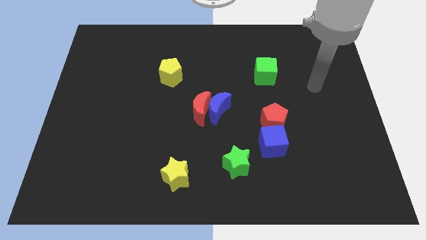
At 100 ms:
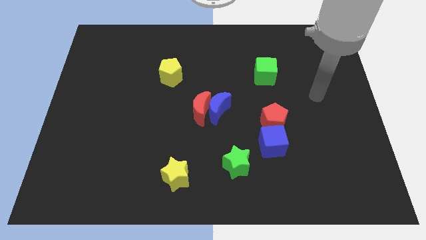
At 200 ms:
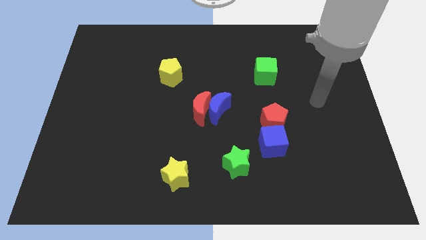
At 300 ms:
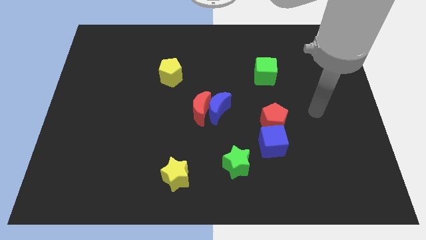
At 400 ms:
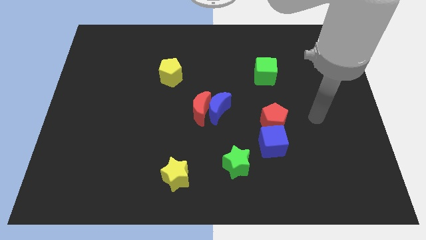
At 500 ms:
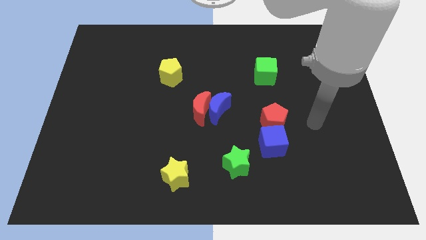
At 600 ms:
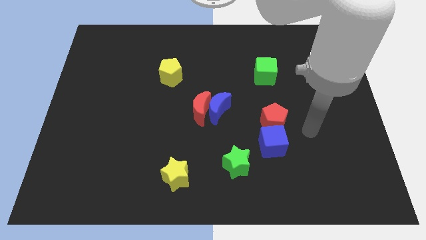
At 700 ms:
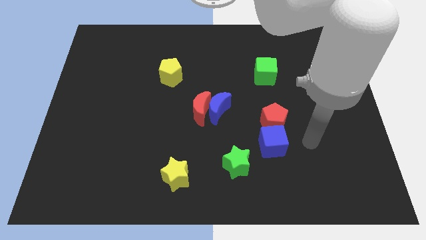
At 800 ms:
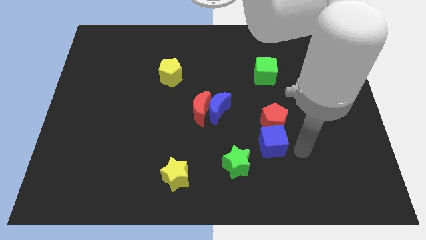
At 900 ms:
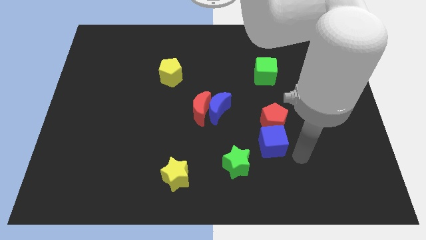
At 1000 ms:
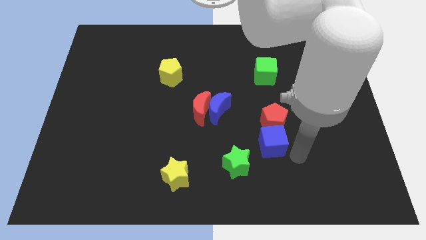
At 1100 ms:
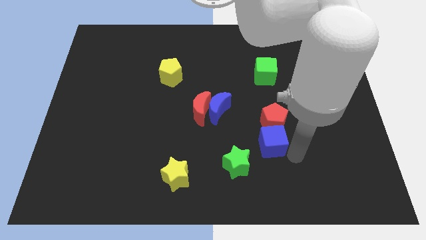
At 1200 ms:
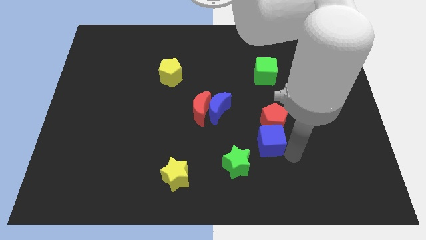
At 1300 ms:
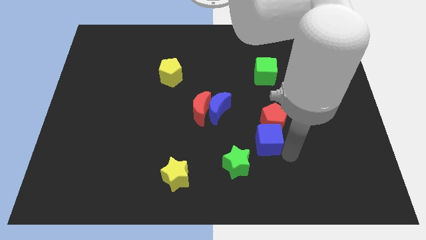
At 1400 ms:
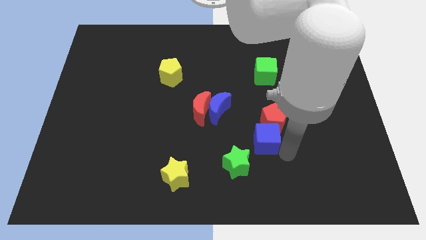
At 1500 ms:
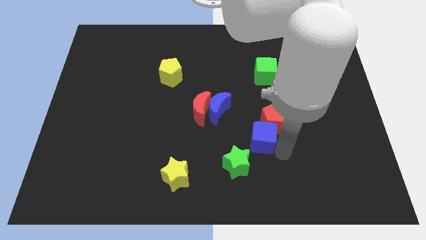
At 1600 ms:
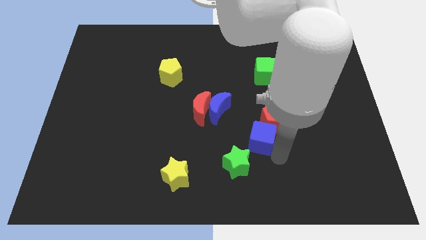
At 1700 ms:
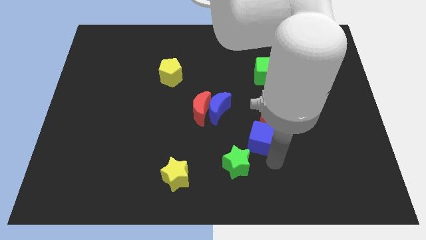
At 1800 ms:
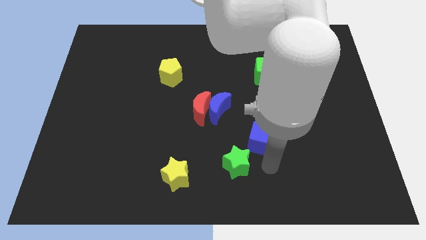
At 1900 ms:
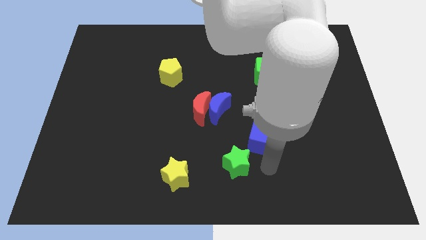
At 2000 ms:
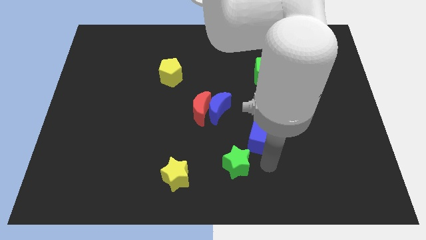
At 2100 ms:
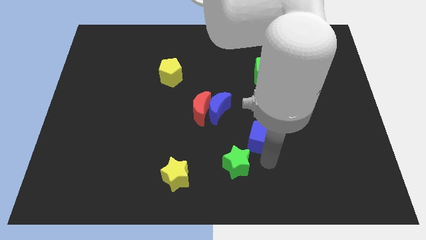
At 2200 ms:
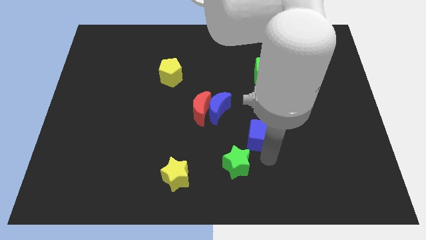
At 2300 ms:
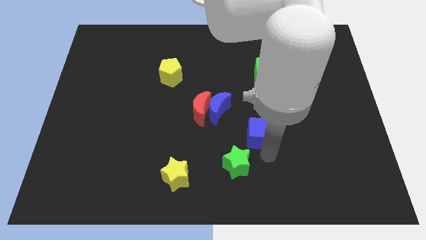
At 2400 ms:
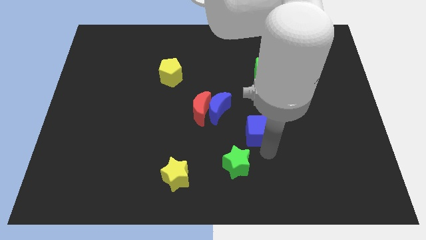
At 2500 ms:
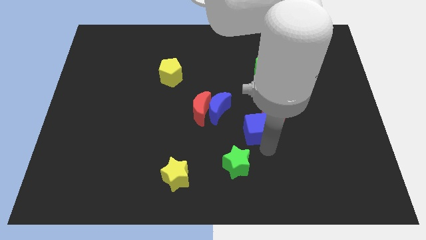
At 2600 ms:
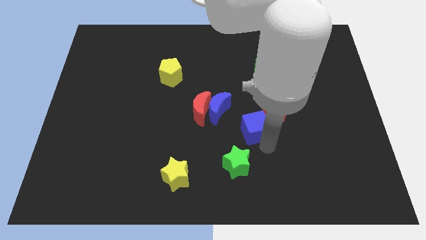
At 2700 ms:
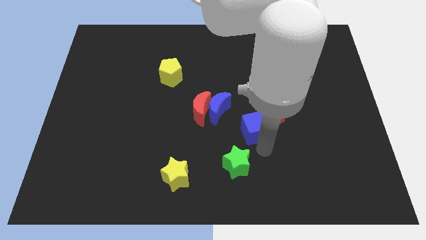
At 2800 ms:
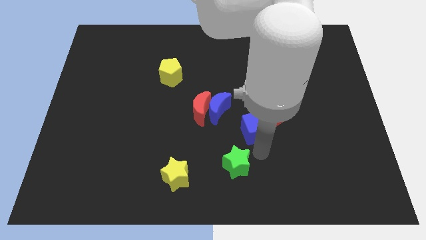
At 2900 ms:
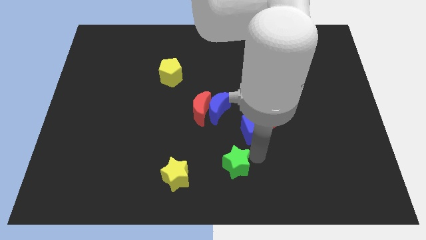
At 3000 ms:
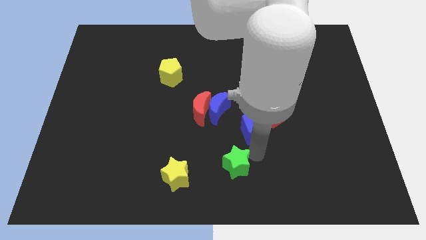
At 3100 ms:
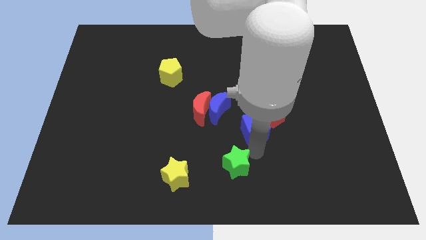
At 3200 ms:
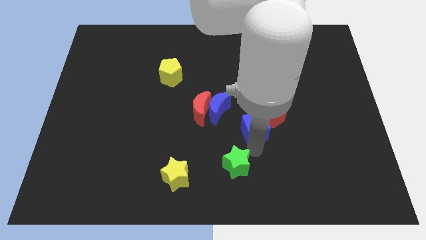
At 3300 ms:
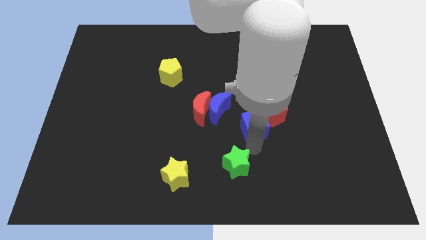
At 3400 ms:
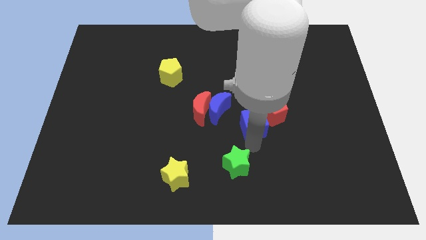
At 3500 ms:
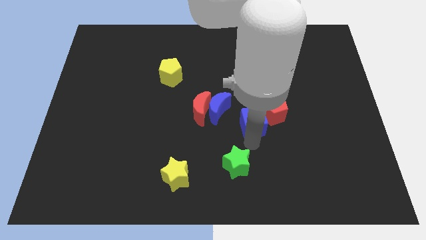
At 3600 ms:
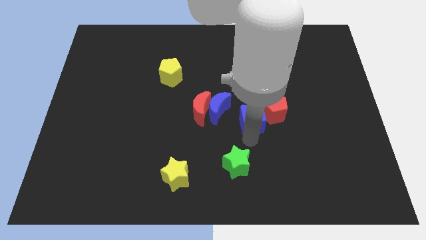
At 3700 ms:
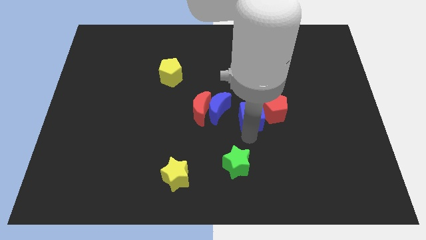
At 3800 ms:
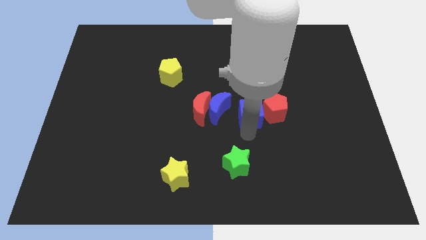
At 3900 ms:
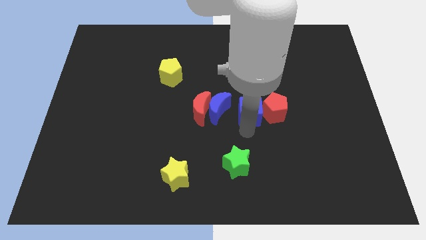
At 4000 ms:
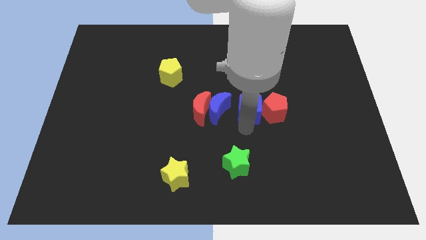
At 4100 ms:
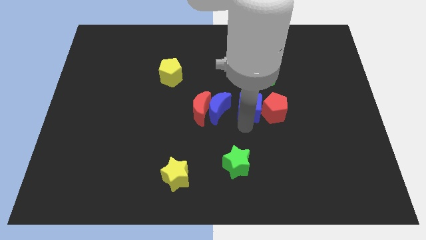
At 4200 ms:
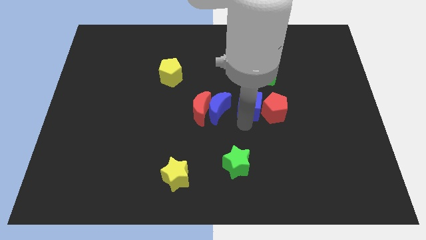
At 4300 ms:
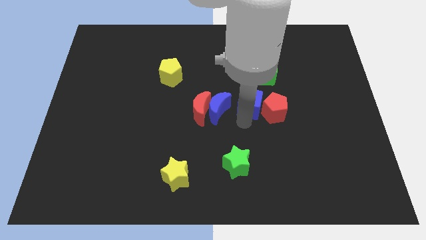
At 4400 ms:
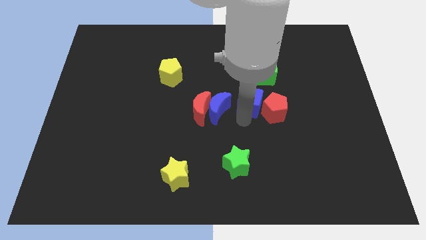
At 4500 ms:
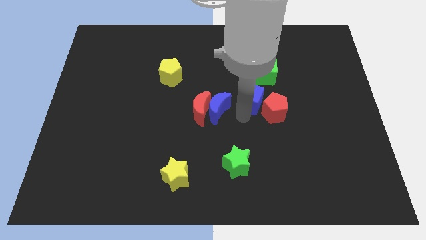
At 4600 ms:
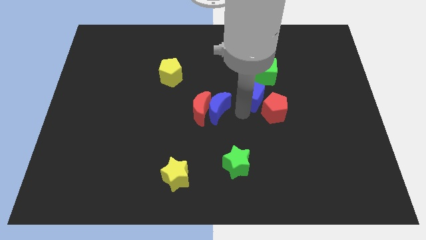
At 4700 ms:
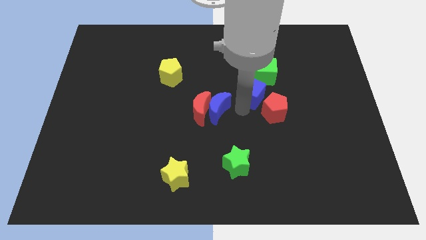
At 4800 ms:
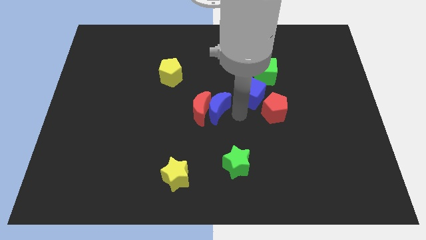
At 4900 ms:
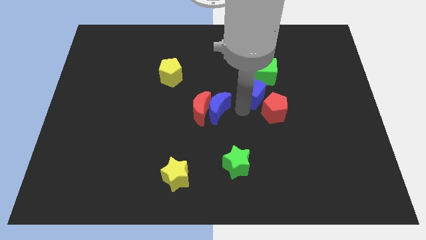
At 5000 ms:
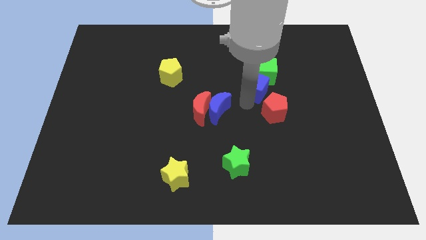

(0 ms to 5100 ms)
move the blue cube to the green cube

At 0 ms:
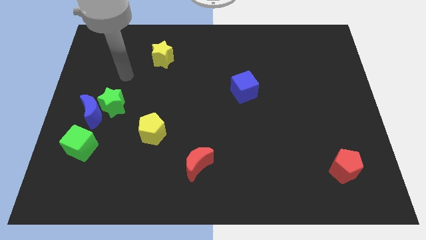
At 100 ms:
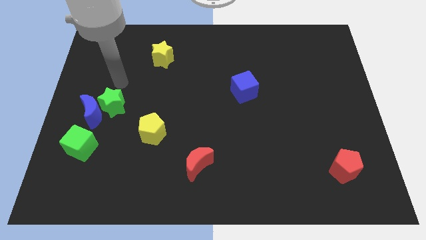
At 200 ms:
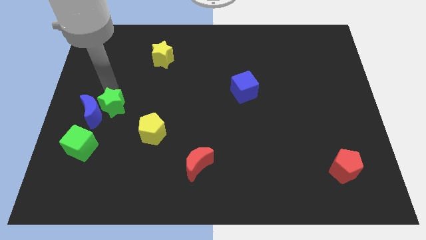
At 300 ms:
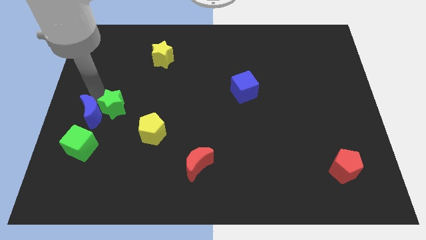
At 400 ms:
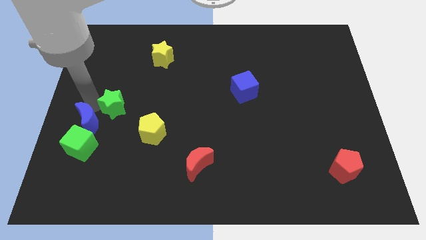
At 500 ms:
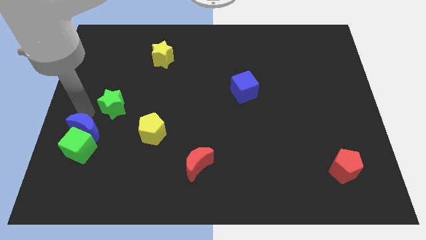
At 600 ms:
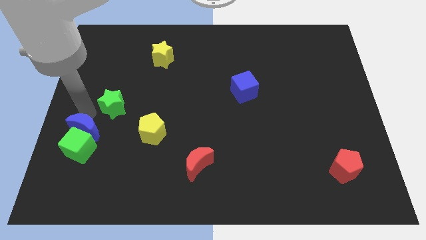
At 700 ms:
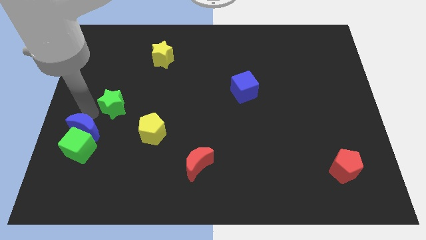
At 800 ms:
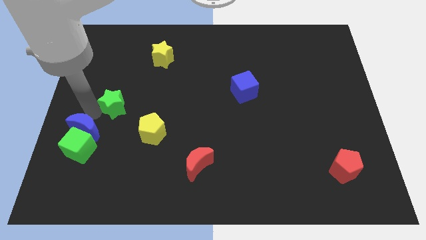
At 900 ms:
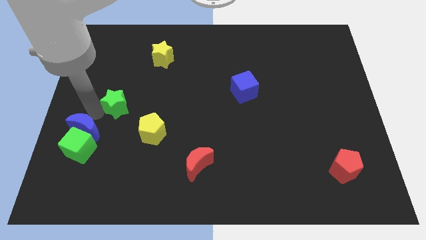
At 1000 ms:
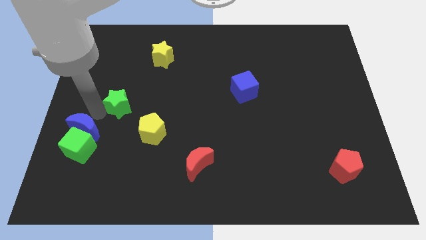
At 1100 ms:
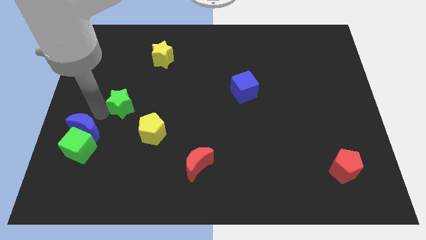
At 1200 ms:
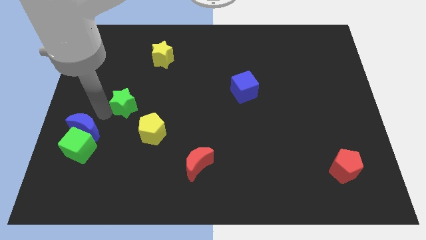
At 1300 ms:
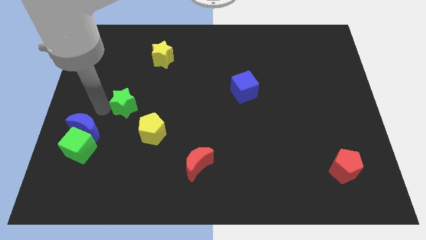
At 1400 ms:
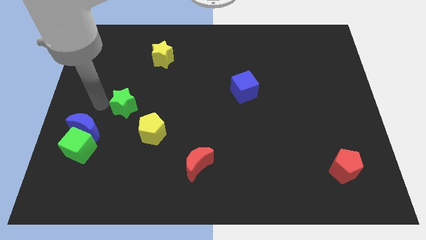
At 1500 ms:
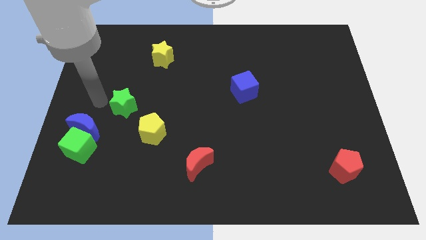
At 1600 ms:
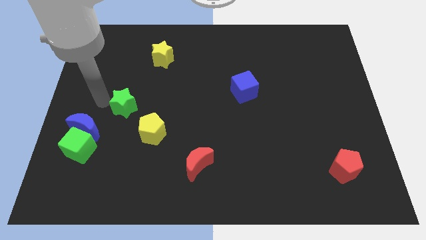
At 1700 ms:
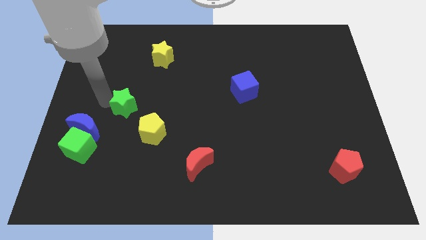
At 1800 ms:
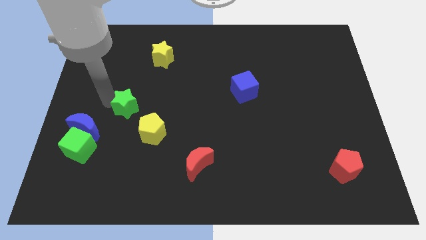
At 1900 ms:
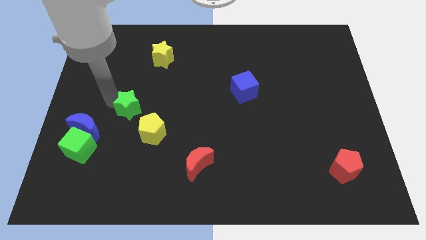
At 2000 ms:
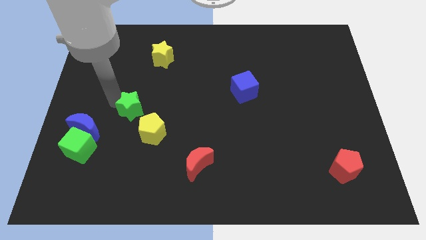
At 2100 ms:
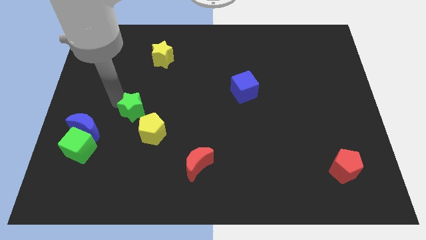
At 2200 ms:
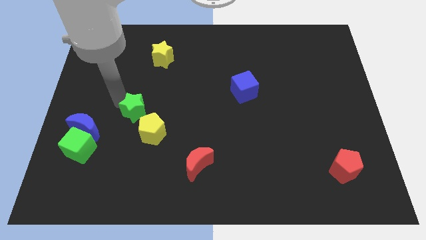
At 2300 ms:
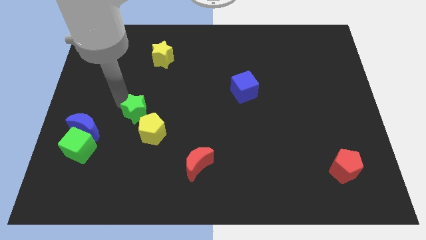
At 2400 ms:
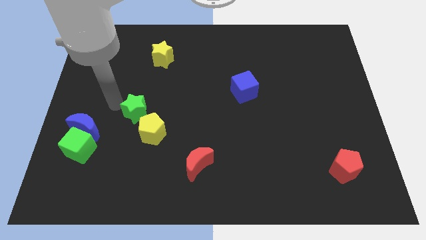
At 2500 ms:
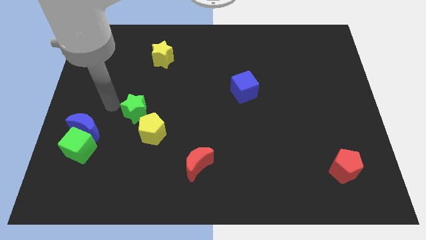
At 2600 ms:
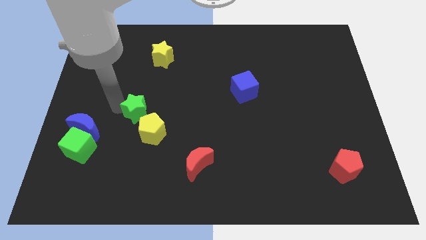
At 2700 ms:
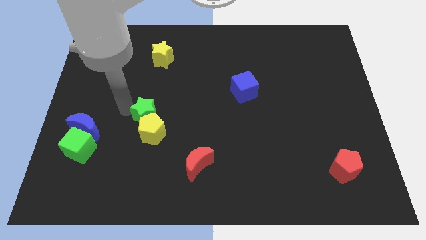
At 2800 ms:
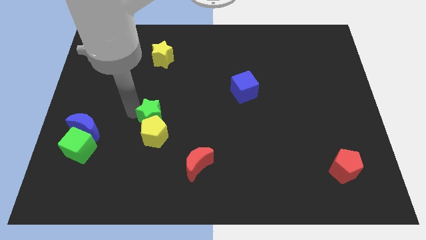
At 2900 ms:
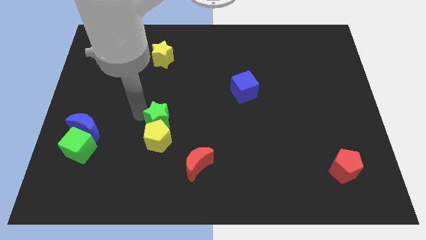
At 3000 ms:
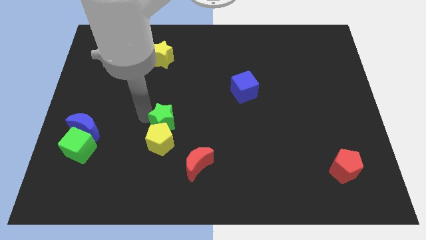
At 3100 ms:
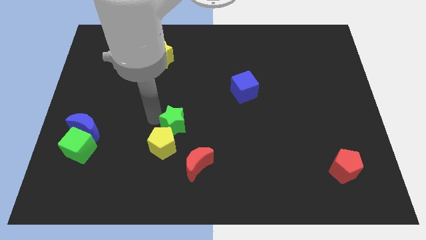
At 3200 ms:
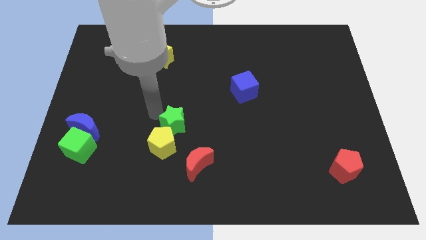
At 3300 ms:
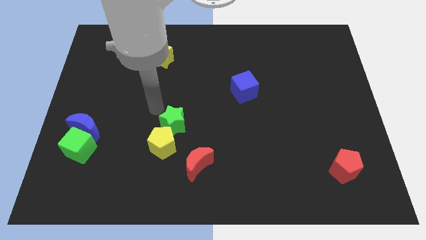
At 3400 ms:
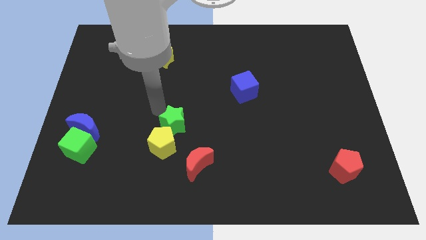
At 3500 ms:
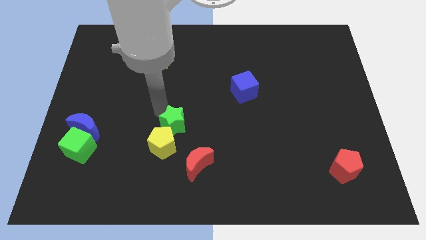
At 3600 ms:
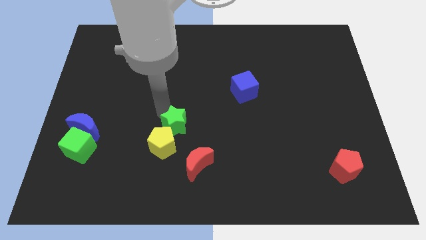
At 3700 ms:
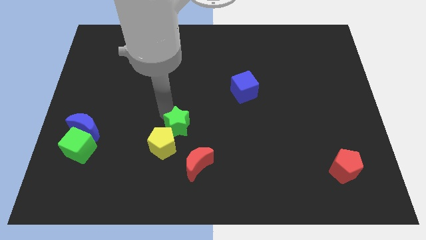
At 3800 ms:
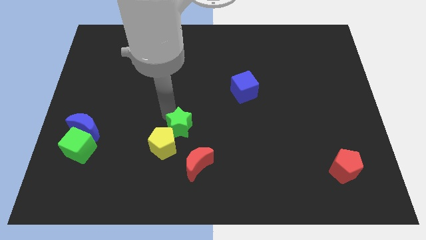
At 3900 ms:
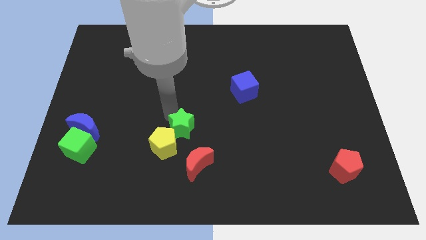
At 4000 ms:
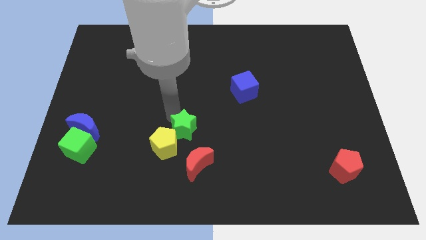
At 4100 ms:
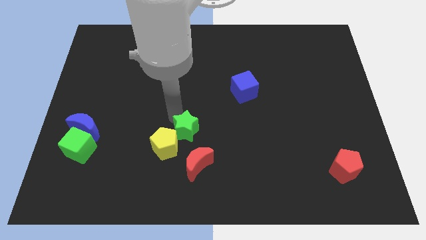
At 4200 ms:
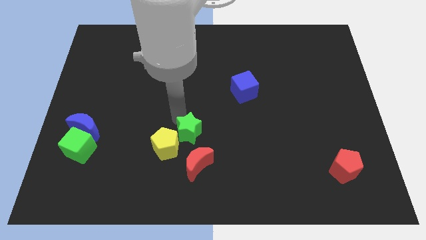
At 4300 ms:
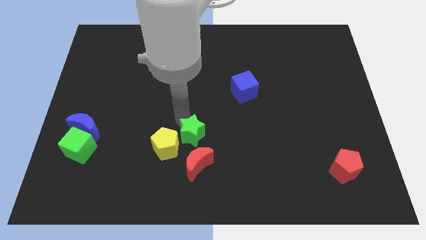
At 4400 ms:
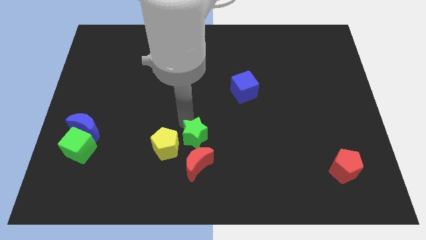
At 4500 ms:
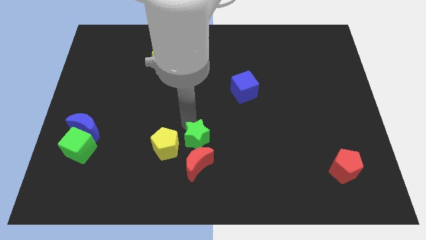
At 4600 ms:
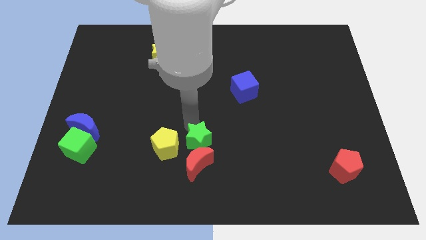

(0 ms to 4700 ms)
move the green star close to the red moon
